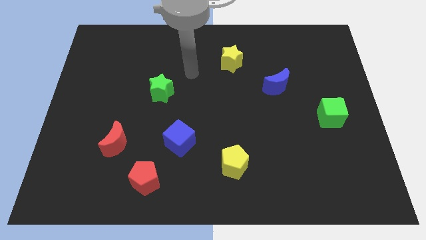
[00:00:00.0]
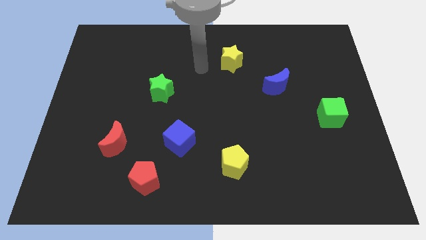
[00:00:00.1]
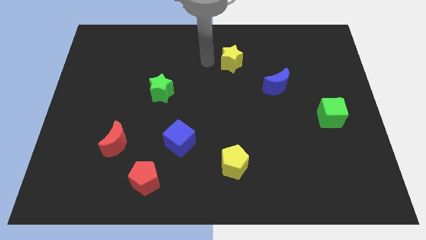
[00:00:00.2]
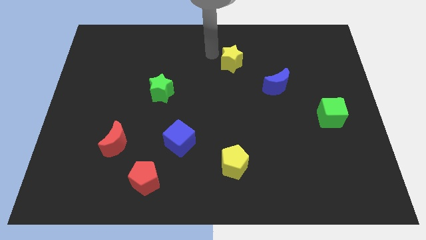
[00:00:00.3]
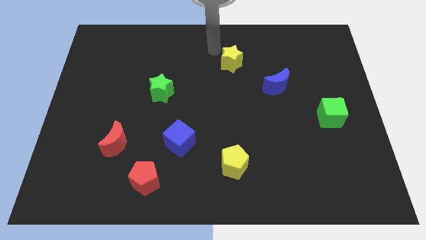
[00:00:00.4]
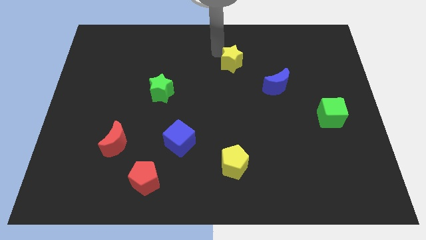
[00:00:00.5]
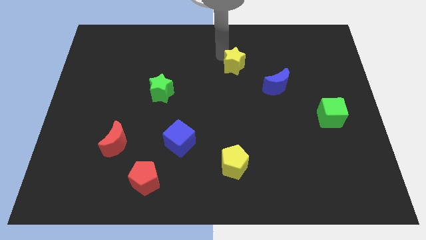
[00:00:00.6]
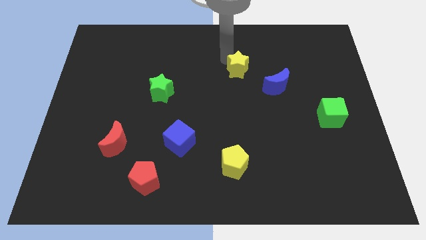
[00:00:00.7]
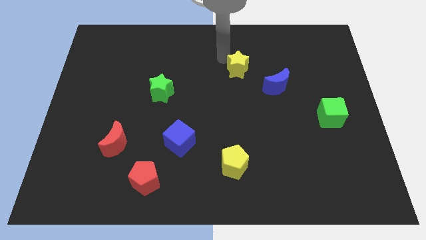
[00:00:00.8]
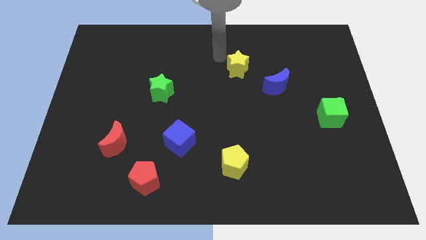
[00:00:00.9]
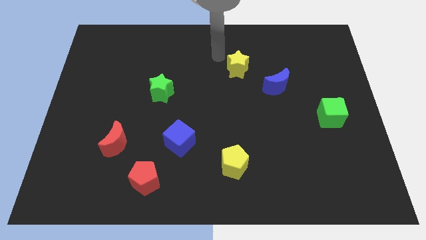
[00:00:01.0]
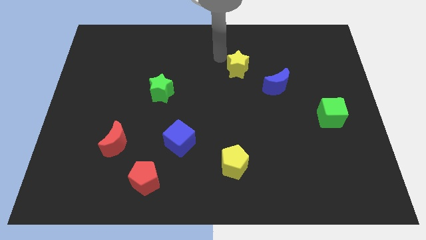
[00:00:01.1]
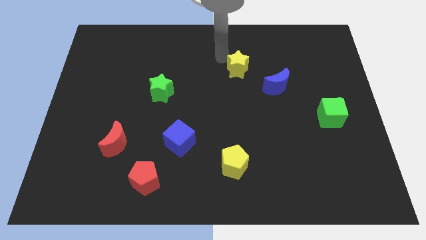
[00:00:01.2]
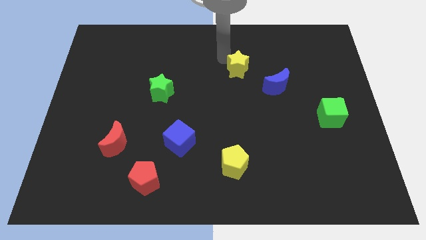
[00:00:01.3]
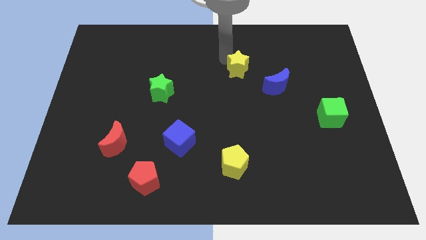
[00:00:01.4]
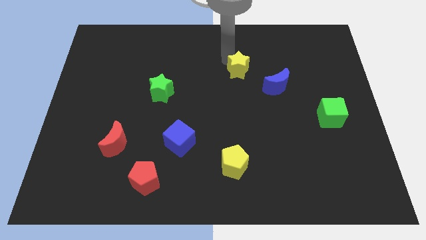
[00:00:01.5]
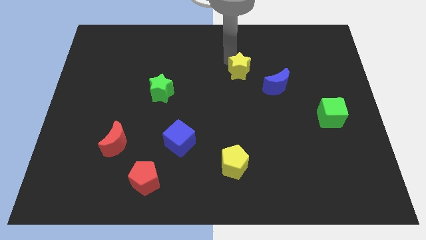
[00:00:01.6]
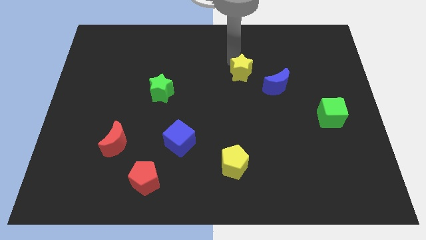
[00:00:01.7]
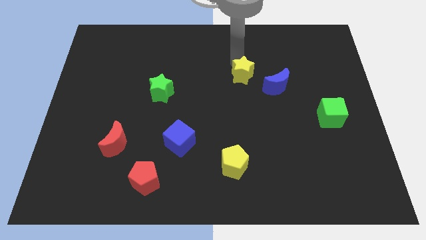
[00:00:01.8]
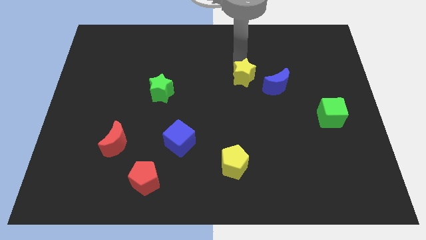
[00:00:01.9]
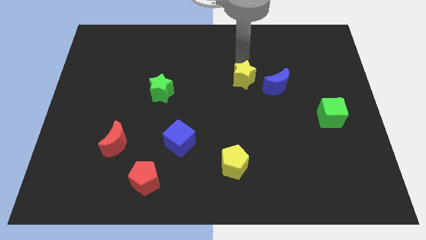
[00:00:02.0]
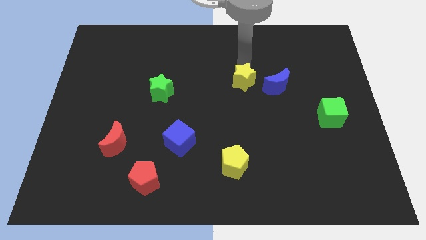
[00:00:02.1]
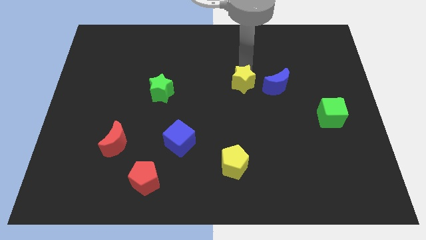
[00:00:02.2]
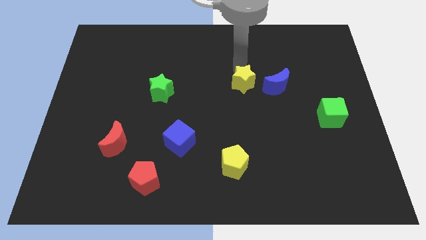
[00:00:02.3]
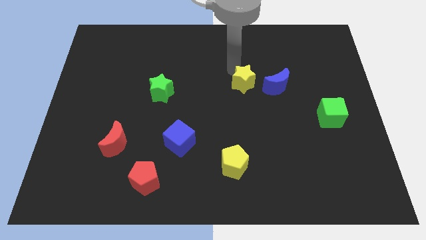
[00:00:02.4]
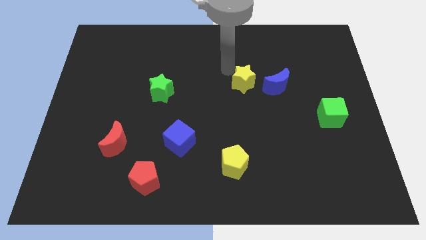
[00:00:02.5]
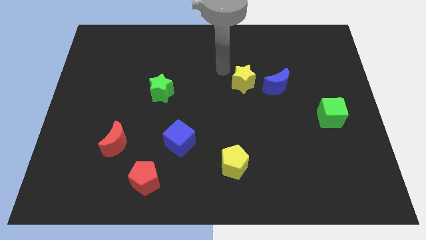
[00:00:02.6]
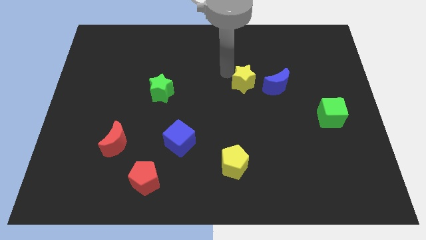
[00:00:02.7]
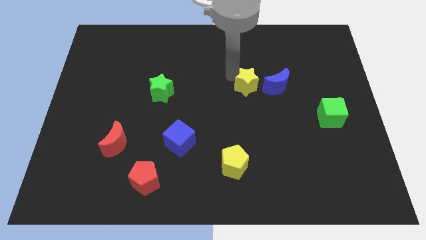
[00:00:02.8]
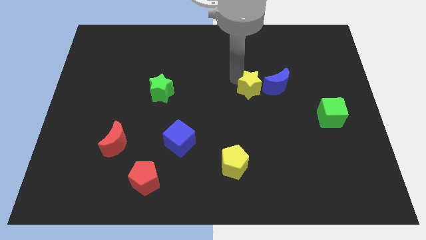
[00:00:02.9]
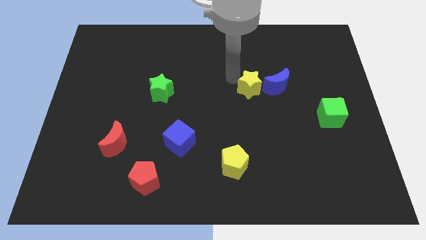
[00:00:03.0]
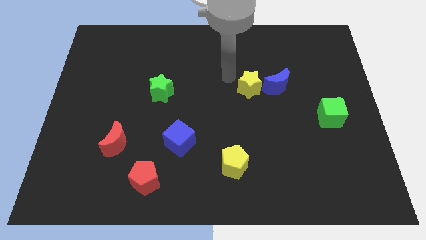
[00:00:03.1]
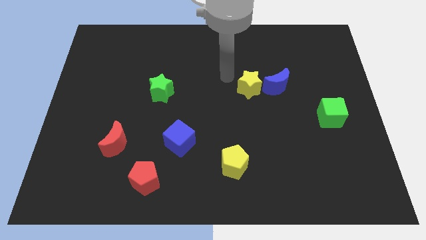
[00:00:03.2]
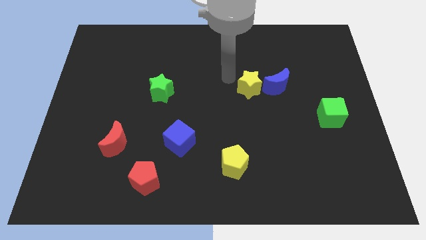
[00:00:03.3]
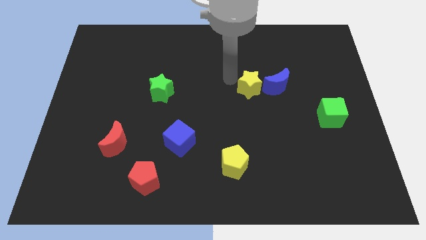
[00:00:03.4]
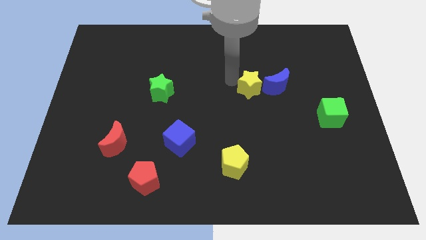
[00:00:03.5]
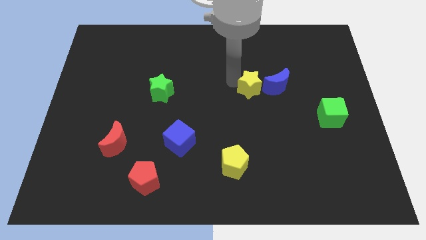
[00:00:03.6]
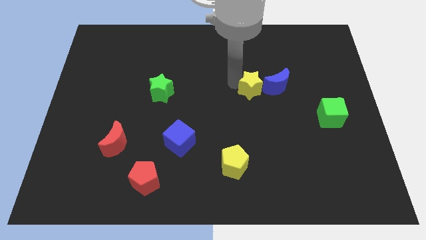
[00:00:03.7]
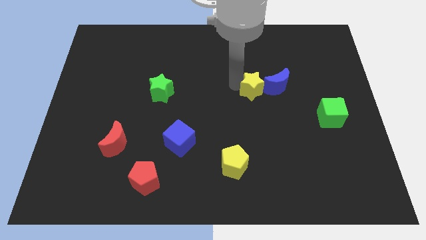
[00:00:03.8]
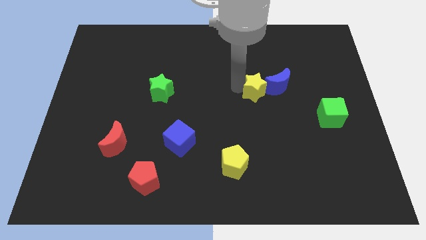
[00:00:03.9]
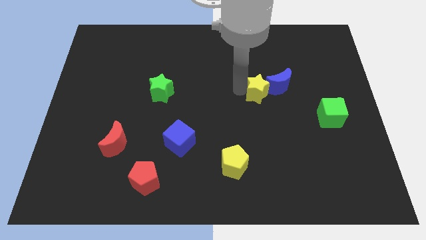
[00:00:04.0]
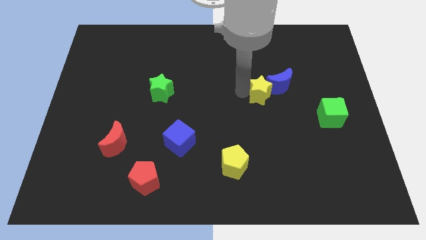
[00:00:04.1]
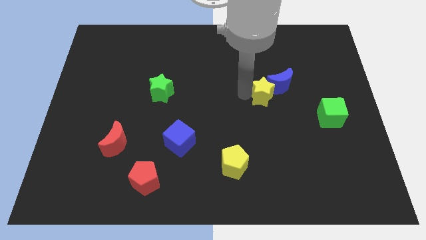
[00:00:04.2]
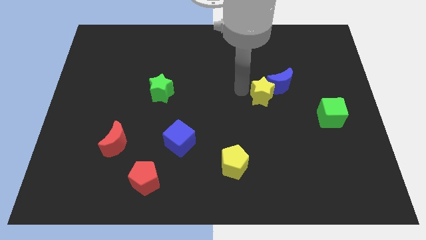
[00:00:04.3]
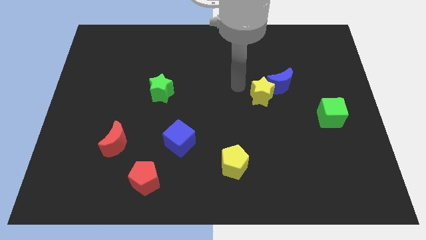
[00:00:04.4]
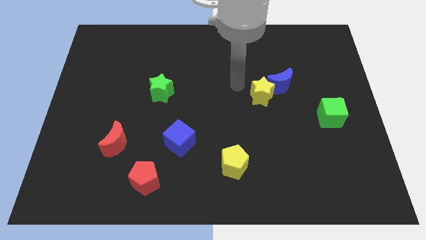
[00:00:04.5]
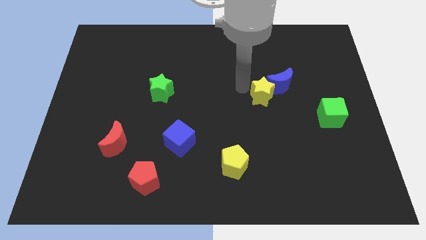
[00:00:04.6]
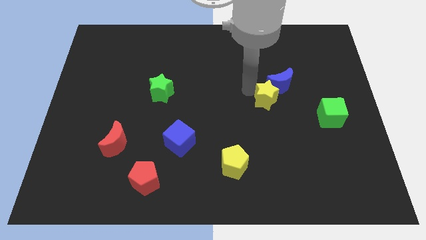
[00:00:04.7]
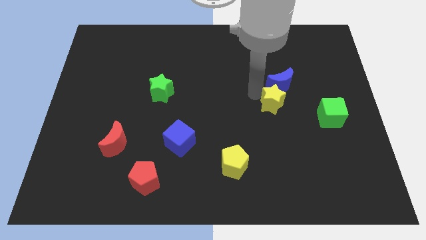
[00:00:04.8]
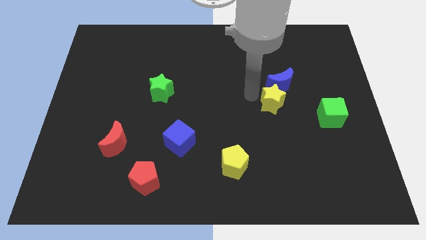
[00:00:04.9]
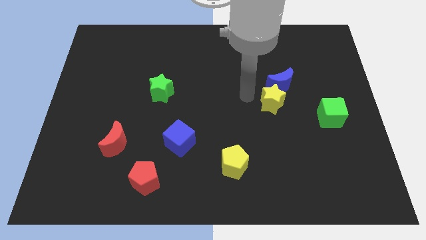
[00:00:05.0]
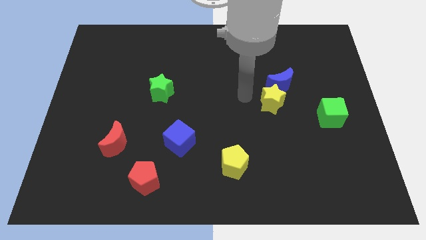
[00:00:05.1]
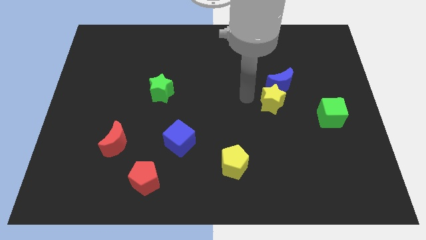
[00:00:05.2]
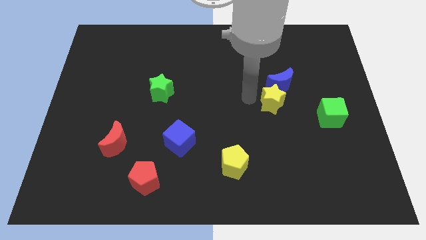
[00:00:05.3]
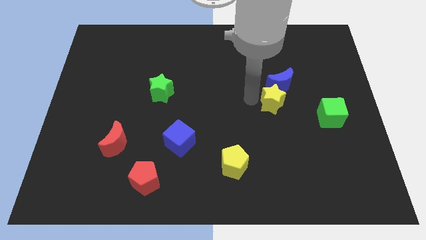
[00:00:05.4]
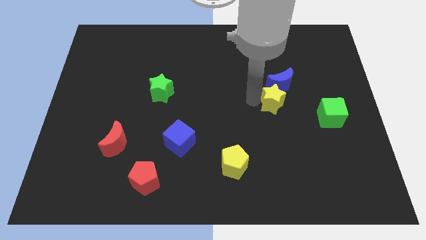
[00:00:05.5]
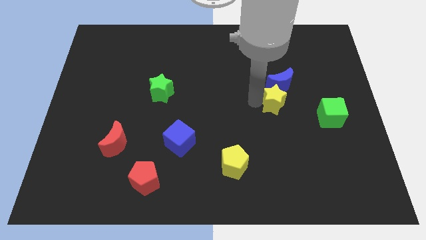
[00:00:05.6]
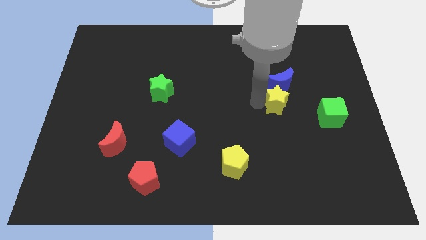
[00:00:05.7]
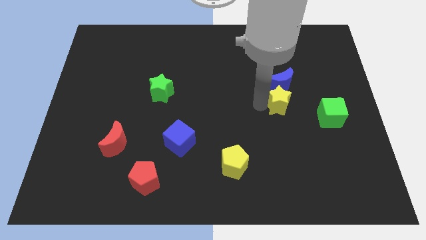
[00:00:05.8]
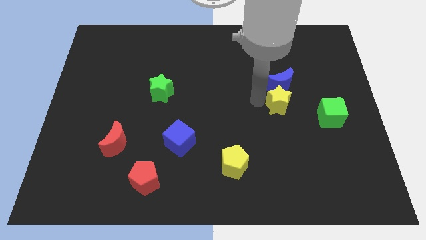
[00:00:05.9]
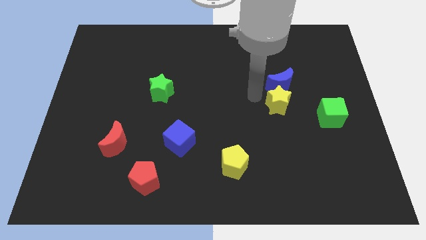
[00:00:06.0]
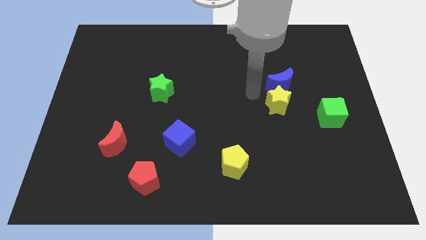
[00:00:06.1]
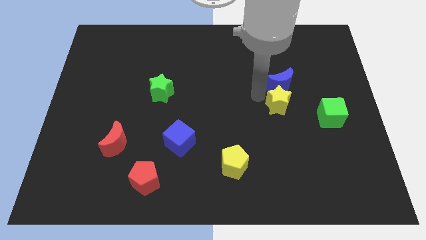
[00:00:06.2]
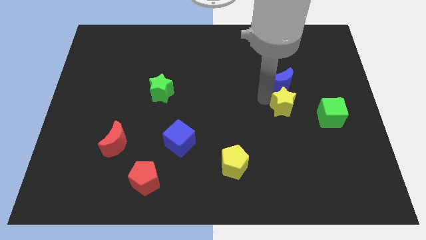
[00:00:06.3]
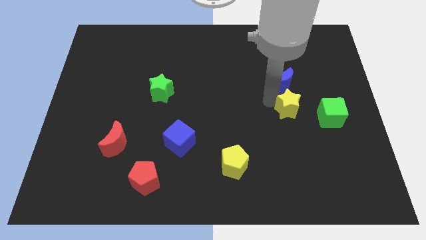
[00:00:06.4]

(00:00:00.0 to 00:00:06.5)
slide the yellow star downwards and then to the right

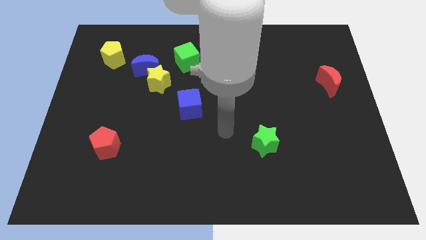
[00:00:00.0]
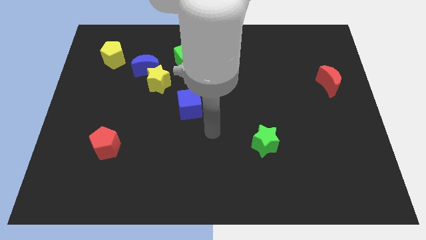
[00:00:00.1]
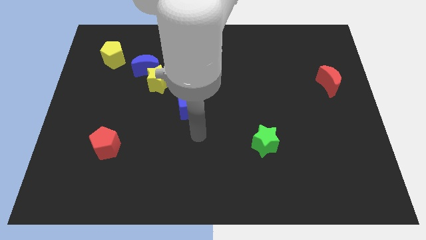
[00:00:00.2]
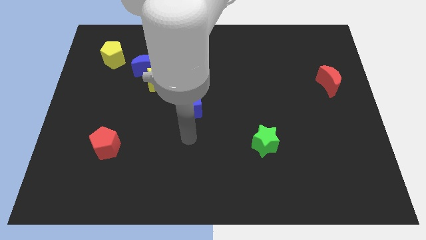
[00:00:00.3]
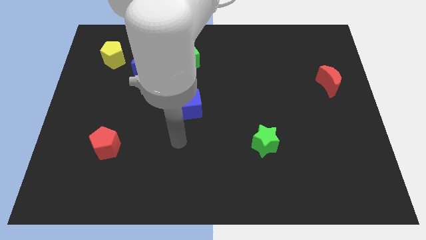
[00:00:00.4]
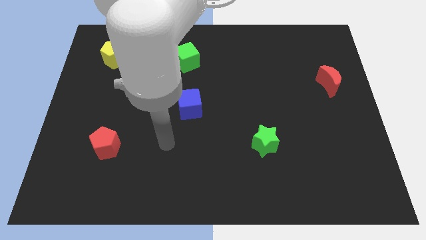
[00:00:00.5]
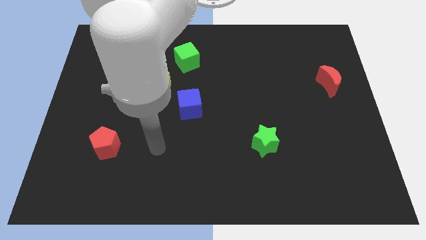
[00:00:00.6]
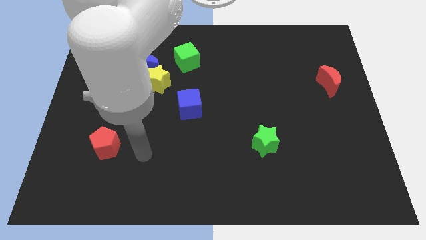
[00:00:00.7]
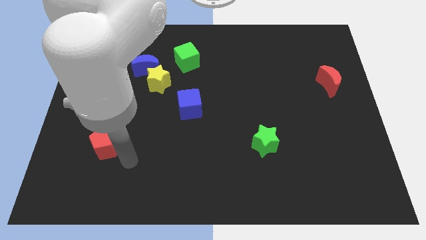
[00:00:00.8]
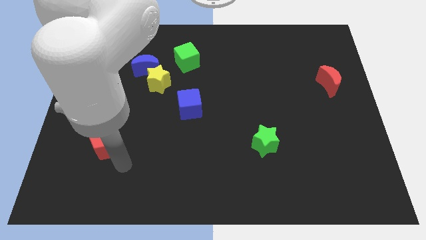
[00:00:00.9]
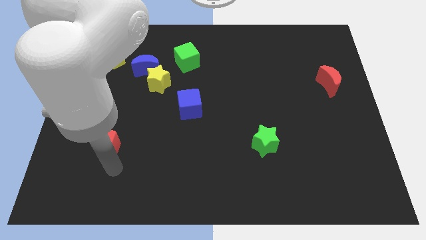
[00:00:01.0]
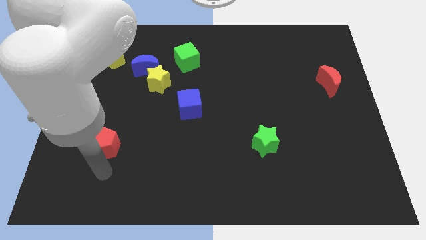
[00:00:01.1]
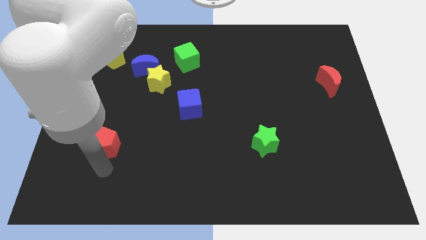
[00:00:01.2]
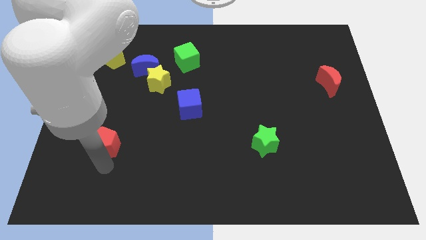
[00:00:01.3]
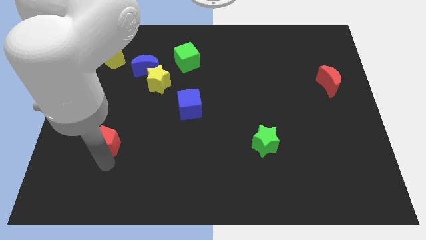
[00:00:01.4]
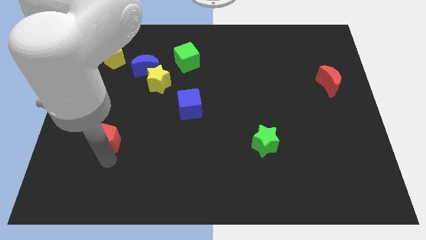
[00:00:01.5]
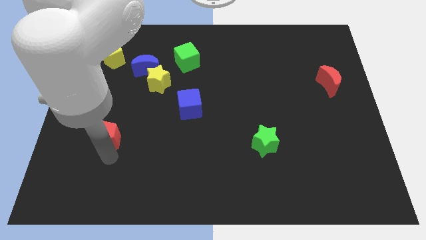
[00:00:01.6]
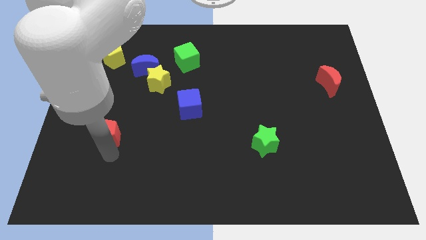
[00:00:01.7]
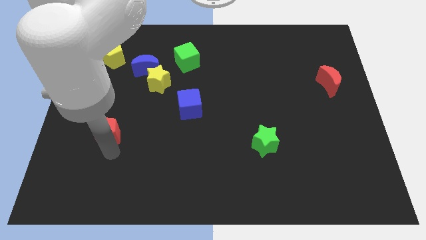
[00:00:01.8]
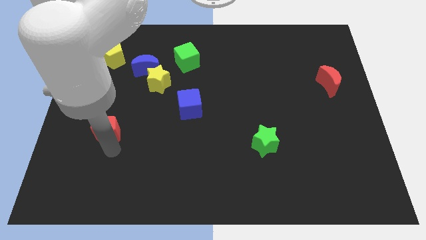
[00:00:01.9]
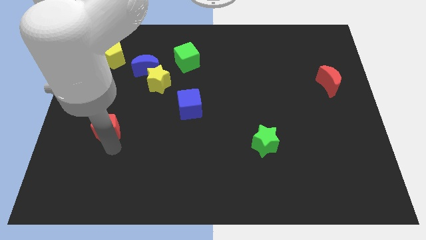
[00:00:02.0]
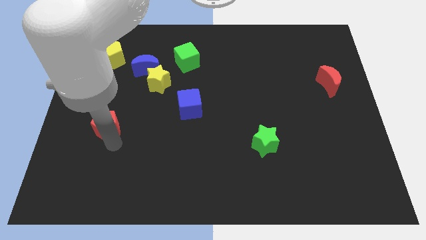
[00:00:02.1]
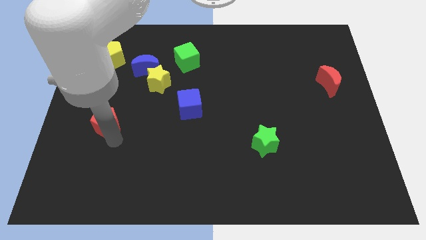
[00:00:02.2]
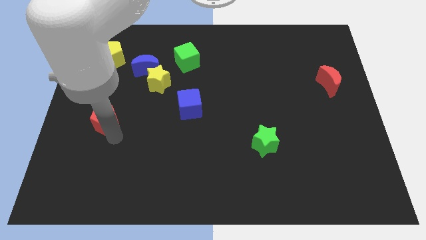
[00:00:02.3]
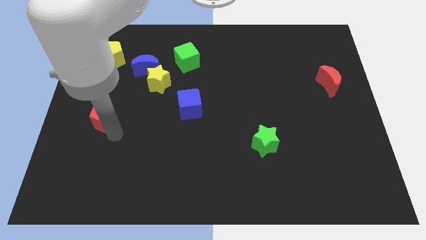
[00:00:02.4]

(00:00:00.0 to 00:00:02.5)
slightly push the red pentagon up
